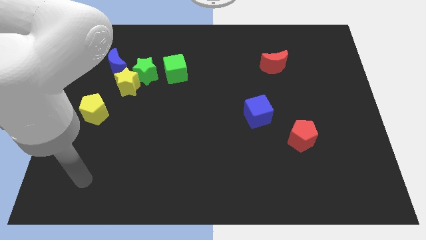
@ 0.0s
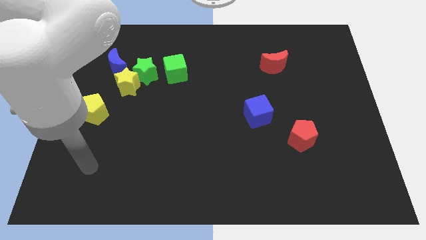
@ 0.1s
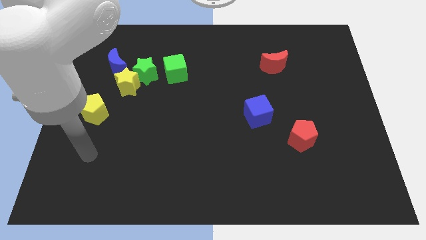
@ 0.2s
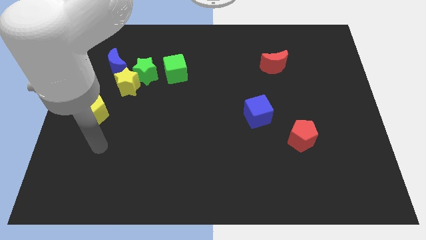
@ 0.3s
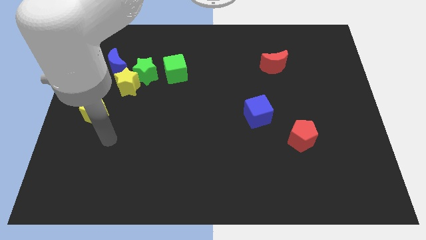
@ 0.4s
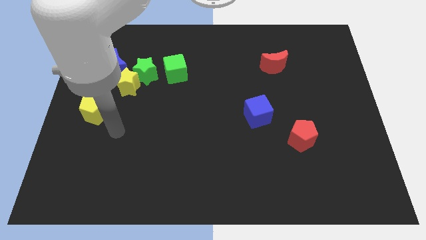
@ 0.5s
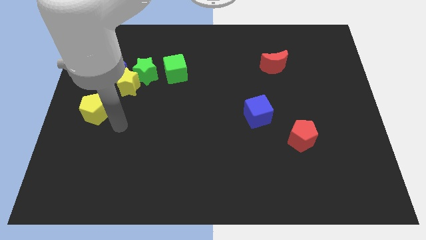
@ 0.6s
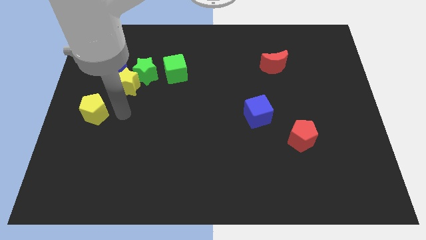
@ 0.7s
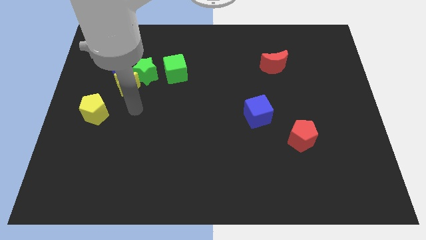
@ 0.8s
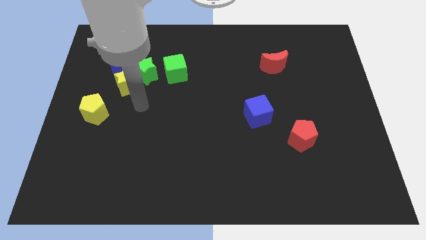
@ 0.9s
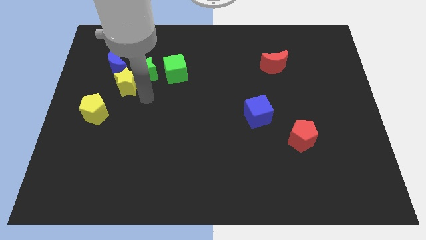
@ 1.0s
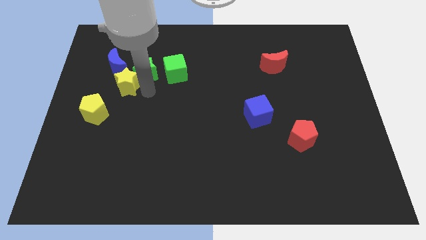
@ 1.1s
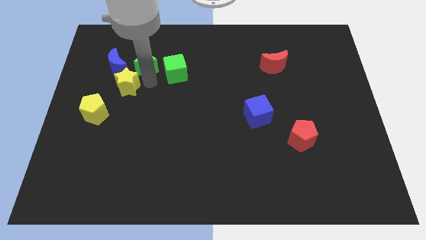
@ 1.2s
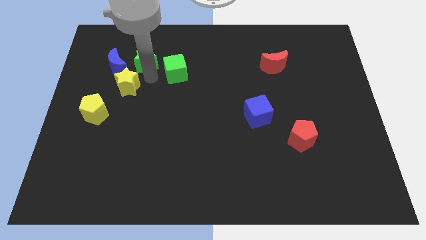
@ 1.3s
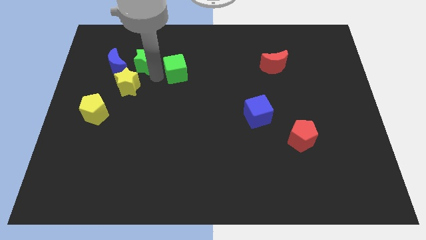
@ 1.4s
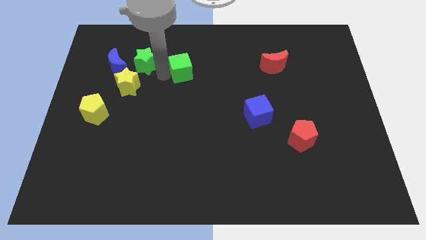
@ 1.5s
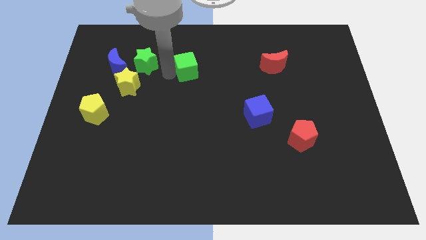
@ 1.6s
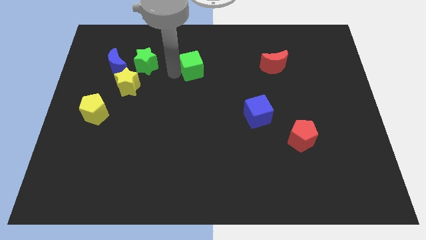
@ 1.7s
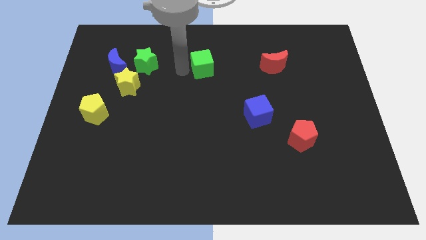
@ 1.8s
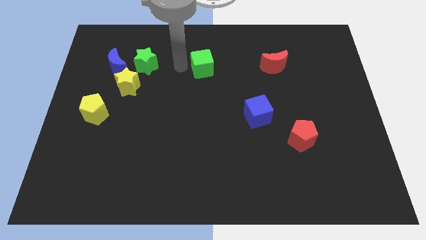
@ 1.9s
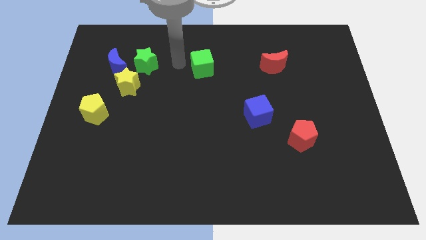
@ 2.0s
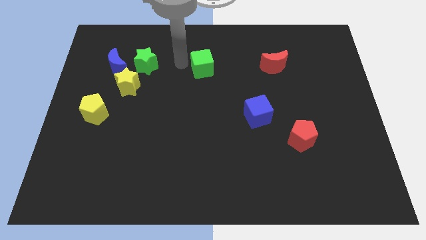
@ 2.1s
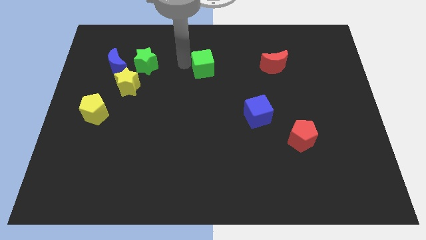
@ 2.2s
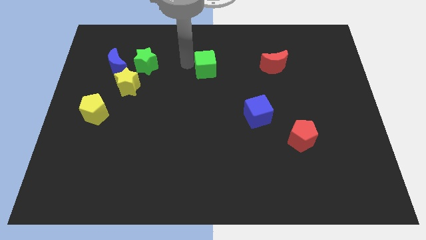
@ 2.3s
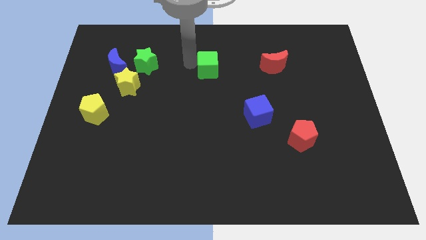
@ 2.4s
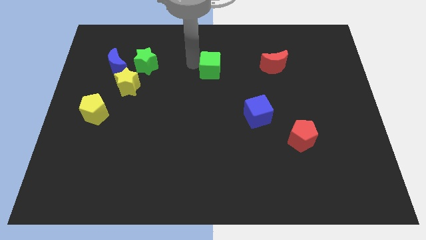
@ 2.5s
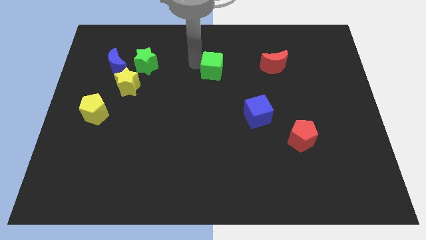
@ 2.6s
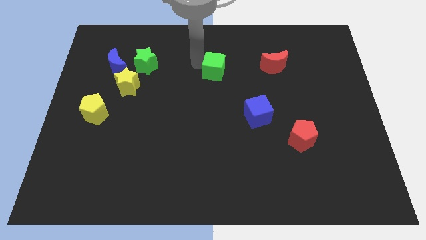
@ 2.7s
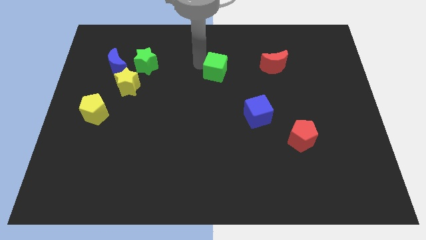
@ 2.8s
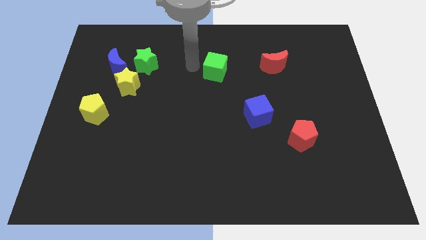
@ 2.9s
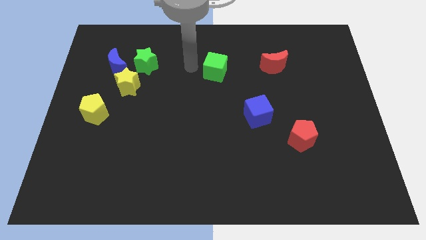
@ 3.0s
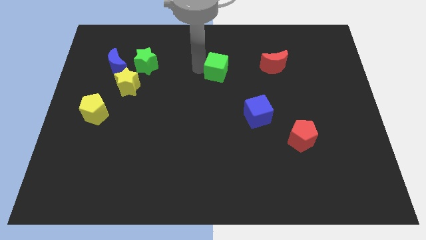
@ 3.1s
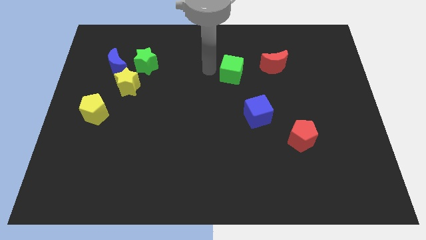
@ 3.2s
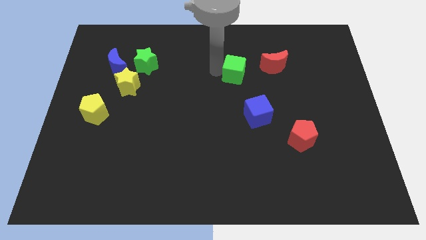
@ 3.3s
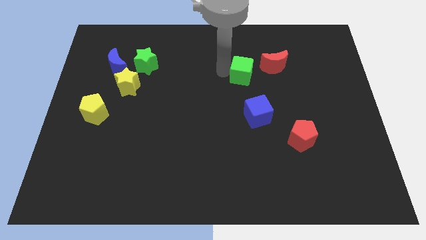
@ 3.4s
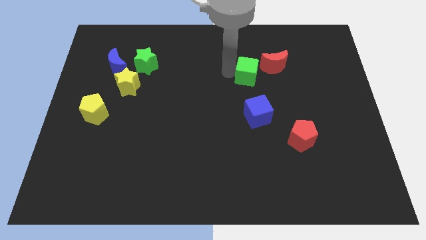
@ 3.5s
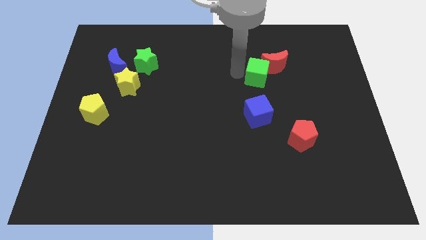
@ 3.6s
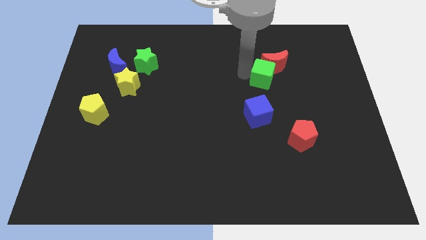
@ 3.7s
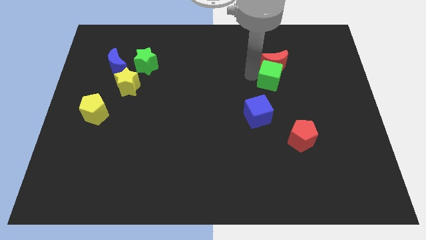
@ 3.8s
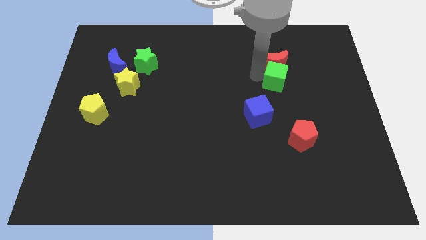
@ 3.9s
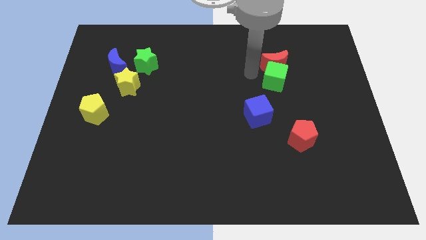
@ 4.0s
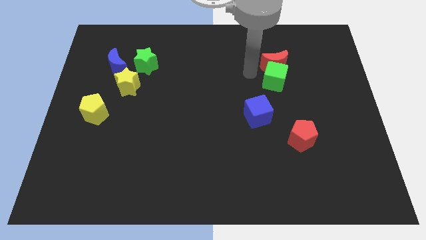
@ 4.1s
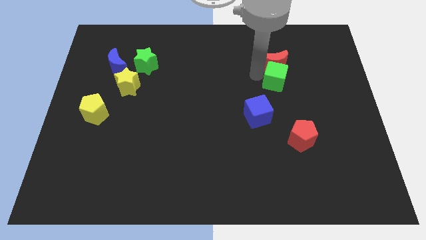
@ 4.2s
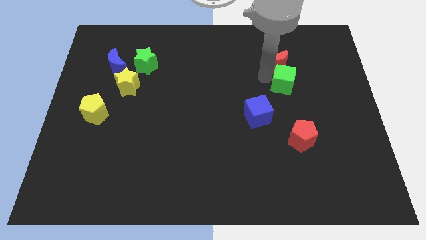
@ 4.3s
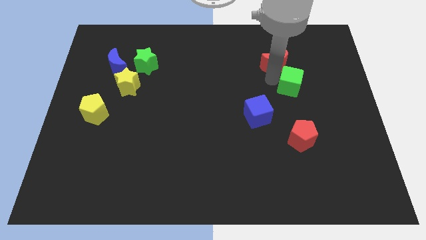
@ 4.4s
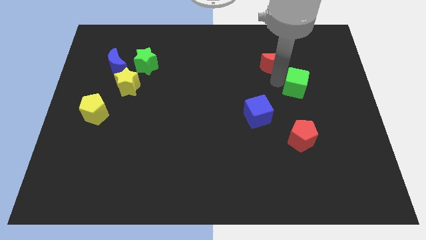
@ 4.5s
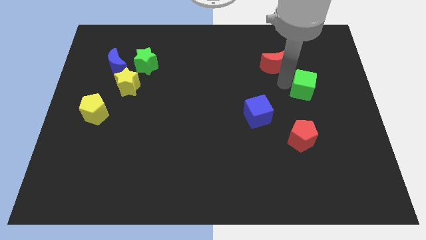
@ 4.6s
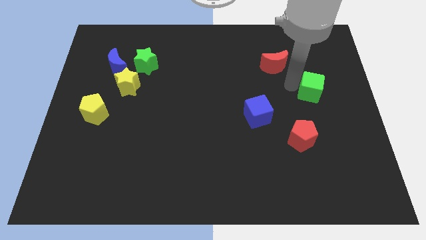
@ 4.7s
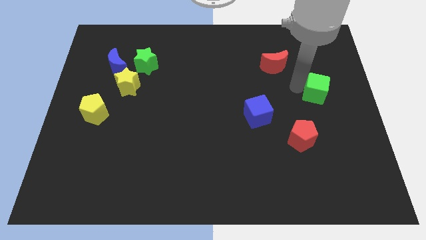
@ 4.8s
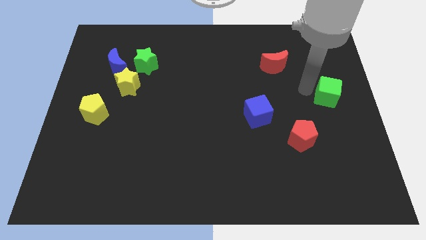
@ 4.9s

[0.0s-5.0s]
push the green cube to the center right
